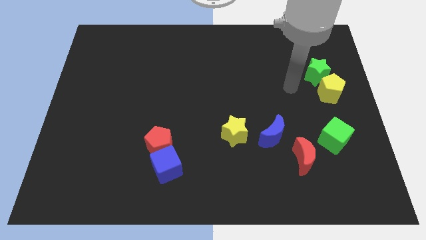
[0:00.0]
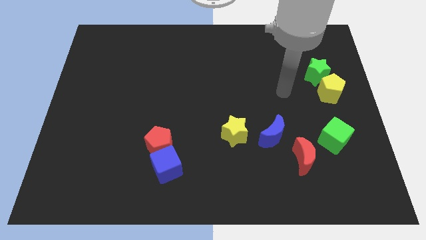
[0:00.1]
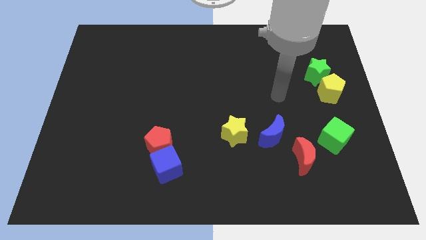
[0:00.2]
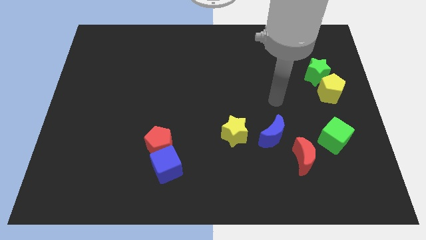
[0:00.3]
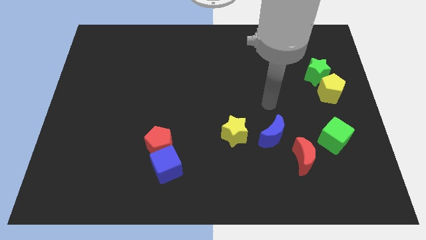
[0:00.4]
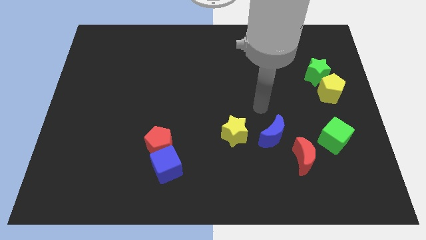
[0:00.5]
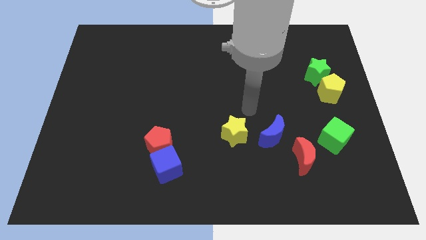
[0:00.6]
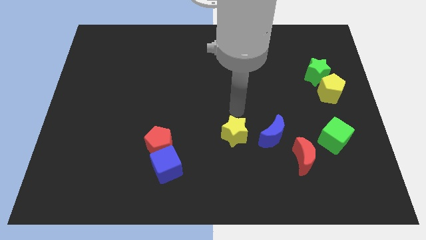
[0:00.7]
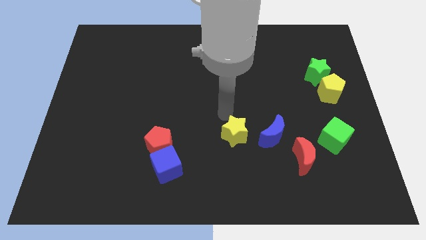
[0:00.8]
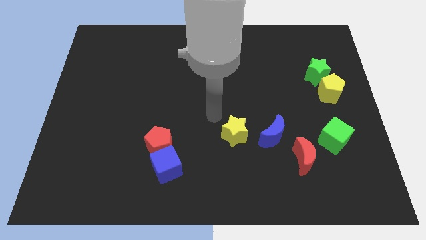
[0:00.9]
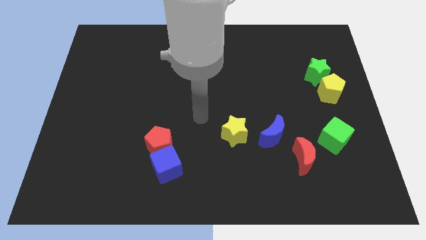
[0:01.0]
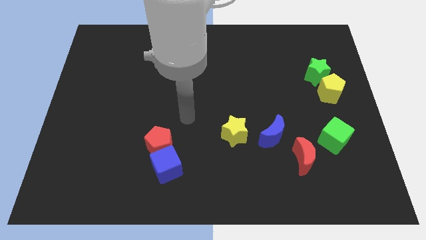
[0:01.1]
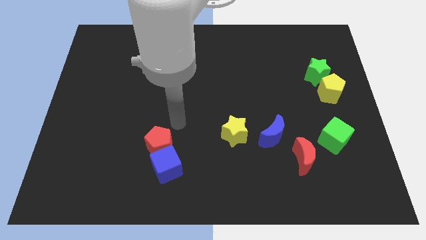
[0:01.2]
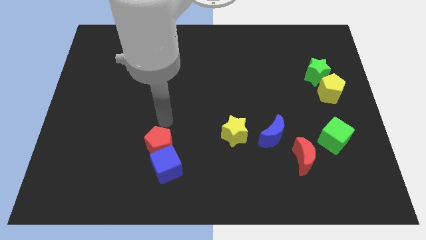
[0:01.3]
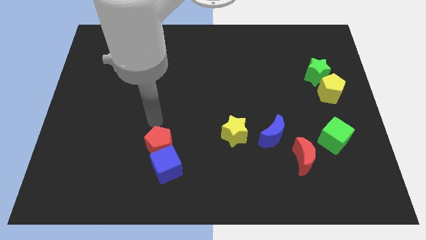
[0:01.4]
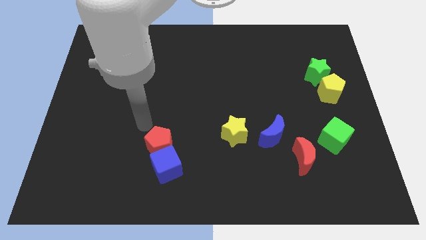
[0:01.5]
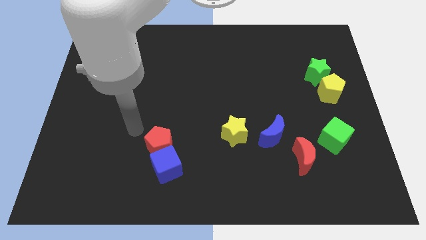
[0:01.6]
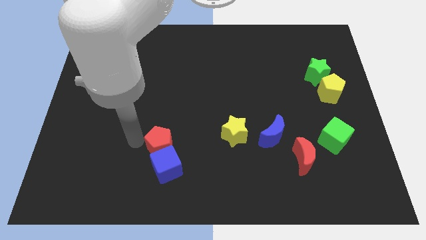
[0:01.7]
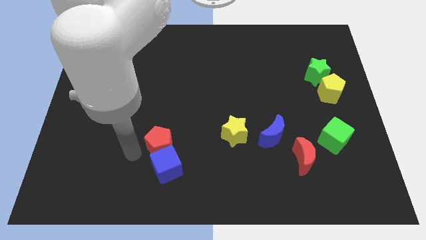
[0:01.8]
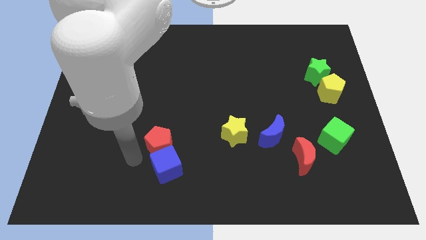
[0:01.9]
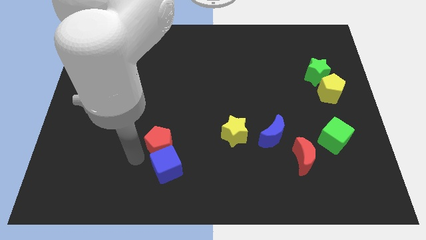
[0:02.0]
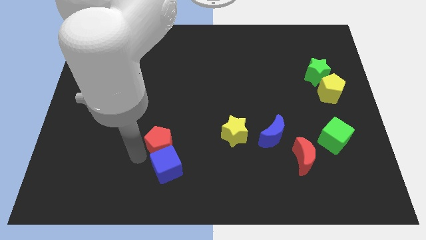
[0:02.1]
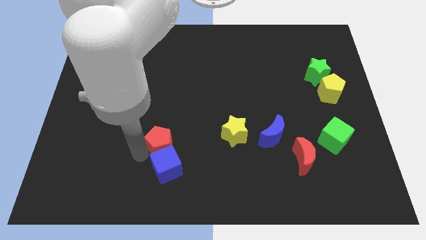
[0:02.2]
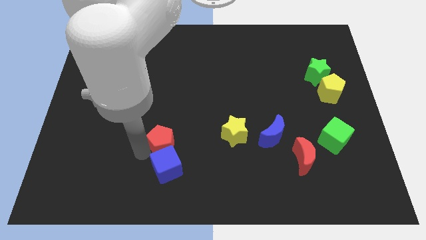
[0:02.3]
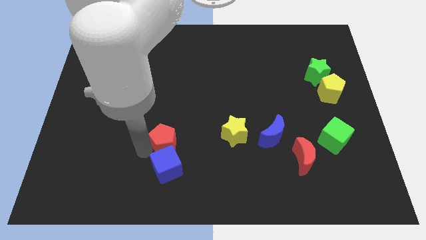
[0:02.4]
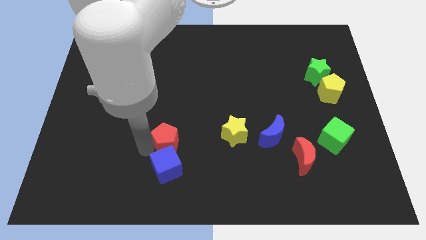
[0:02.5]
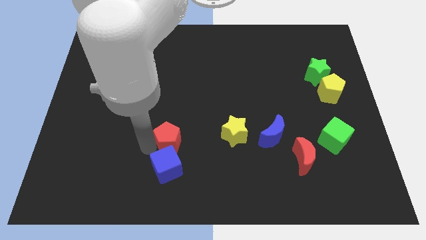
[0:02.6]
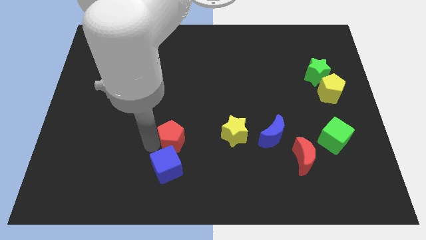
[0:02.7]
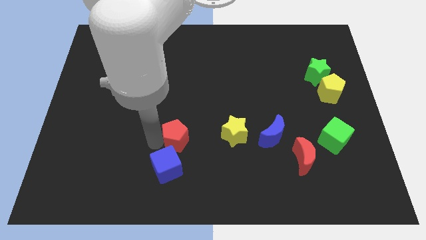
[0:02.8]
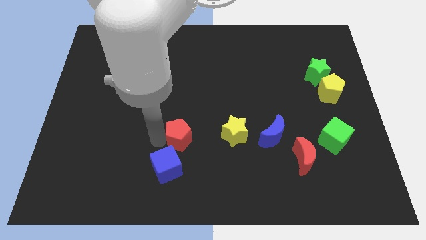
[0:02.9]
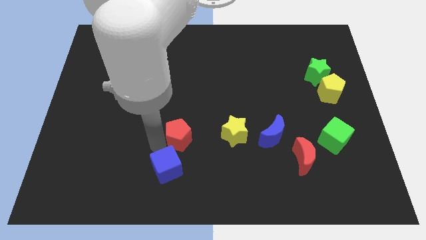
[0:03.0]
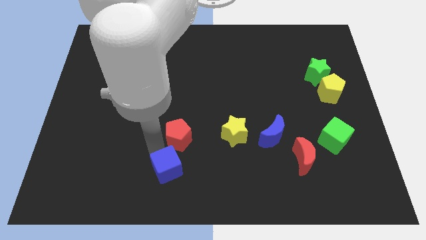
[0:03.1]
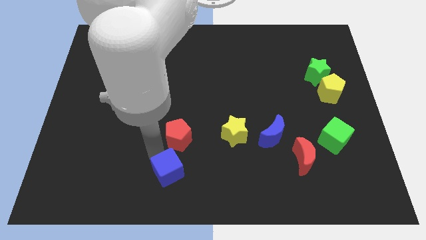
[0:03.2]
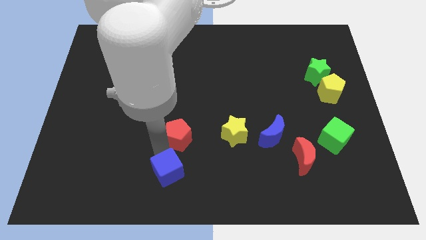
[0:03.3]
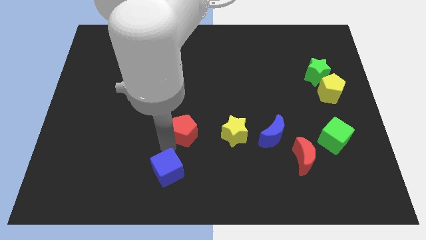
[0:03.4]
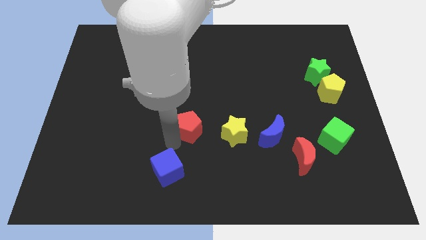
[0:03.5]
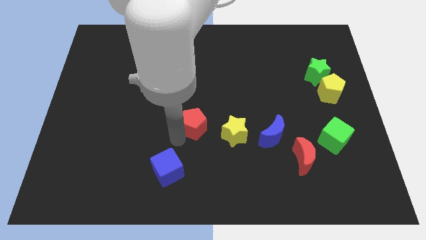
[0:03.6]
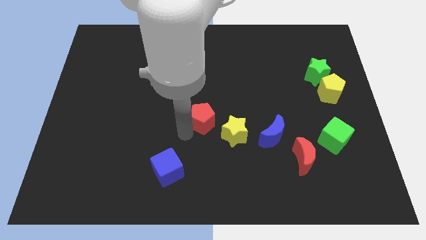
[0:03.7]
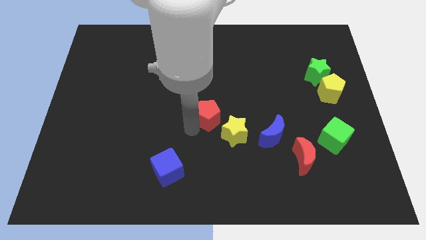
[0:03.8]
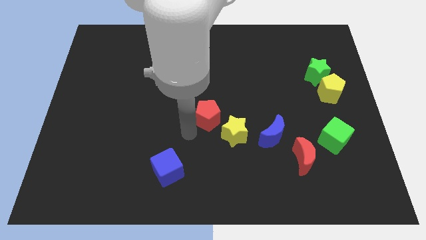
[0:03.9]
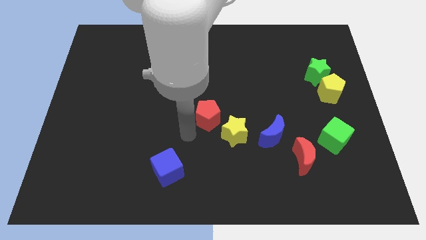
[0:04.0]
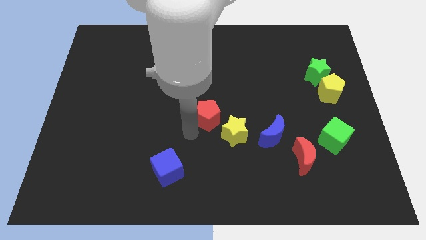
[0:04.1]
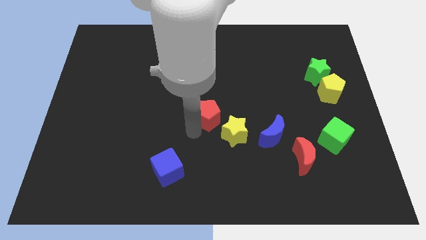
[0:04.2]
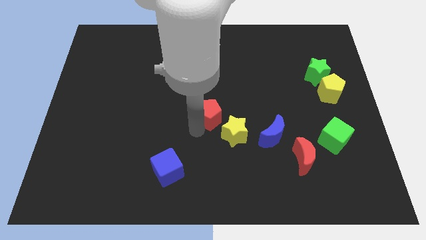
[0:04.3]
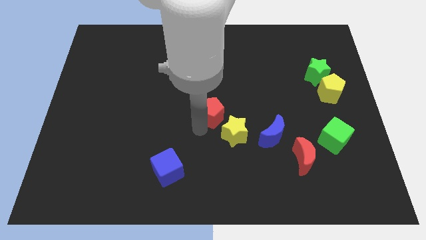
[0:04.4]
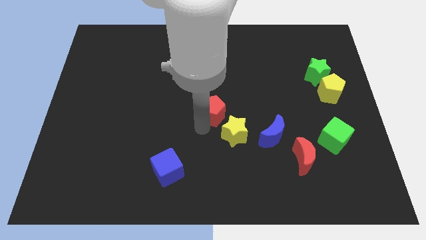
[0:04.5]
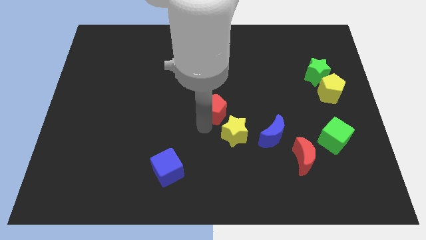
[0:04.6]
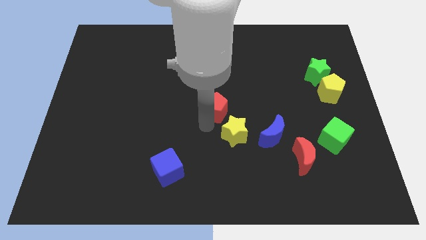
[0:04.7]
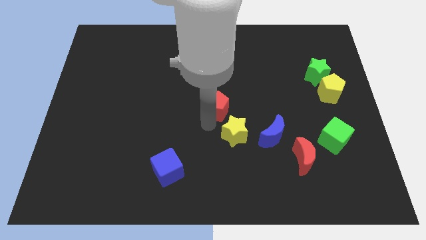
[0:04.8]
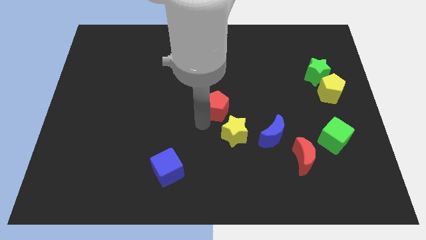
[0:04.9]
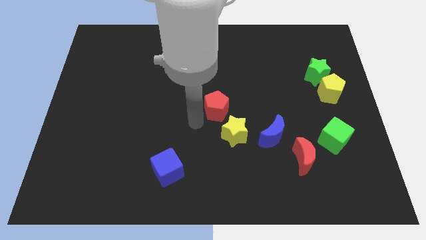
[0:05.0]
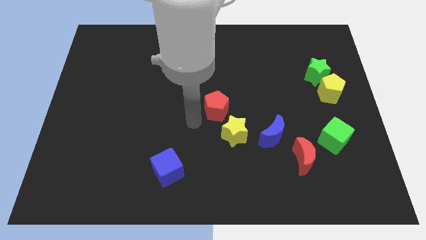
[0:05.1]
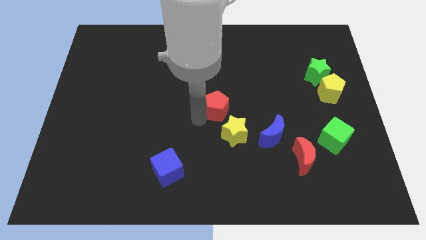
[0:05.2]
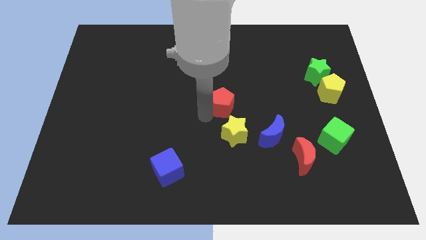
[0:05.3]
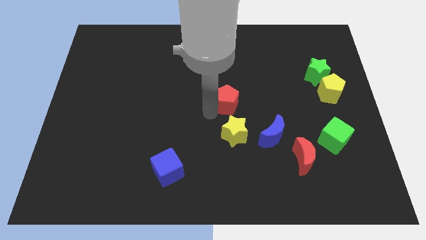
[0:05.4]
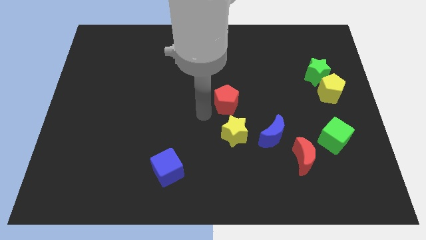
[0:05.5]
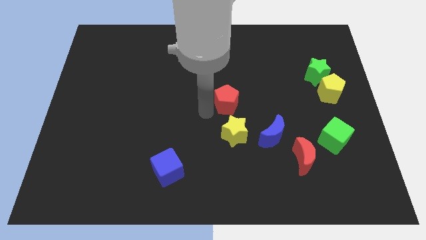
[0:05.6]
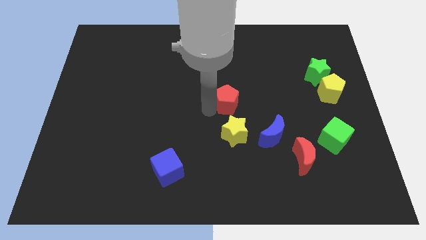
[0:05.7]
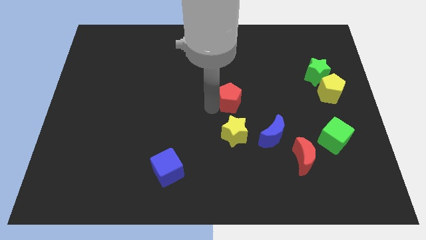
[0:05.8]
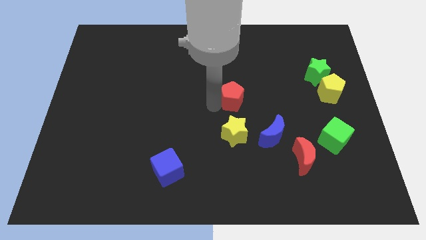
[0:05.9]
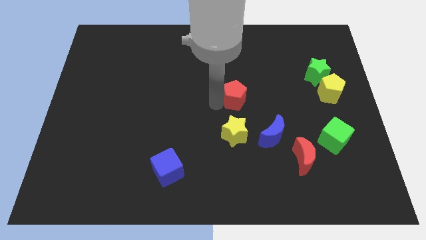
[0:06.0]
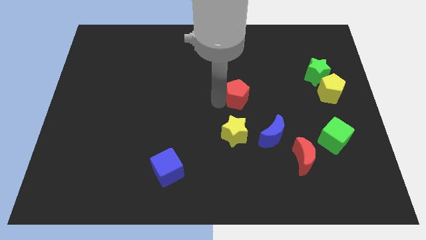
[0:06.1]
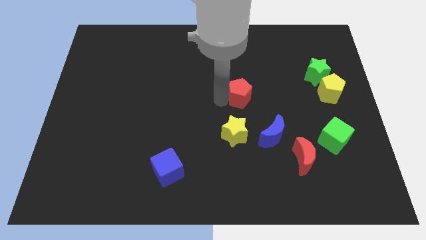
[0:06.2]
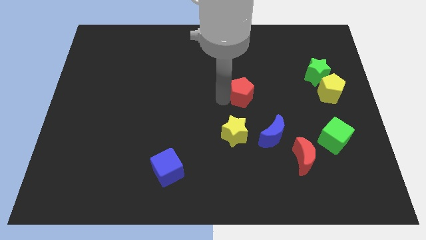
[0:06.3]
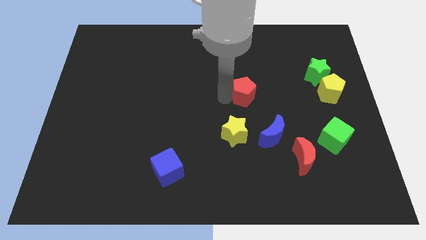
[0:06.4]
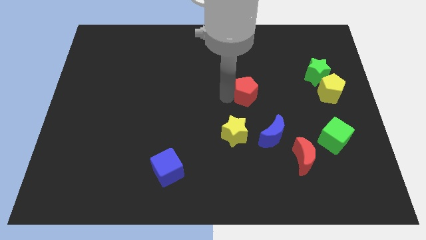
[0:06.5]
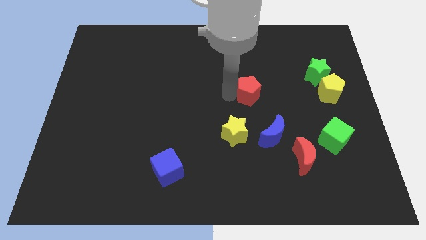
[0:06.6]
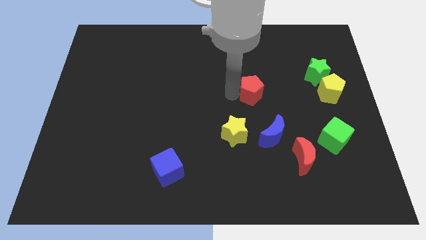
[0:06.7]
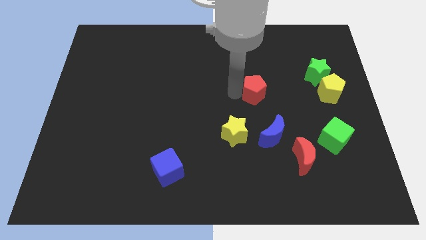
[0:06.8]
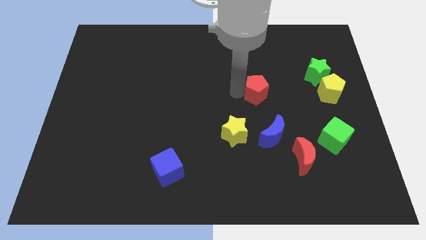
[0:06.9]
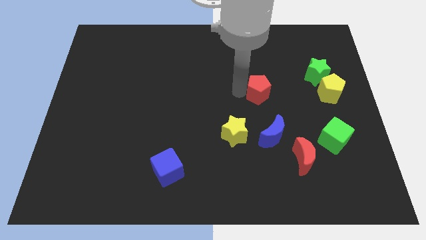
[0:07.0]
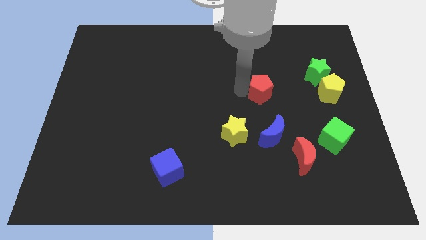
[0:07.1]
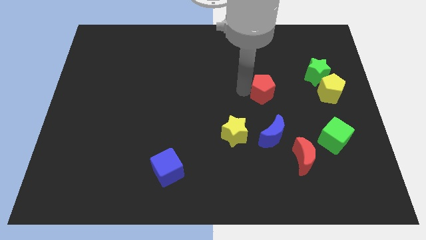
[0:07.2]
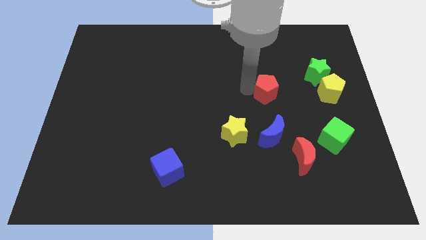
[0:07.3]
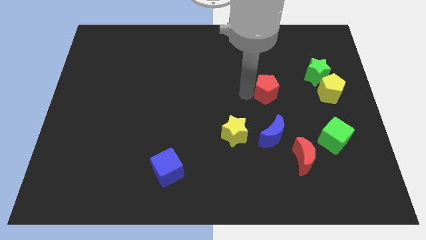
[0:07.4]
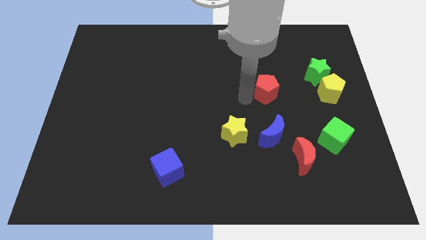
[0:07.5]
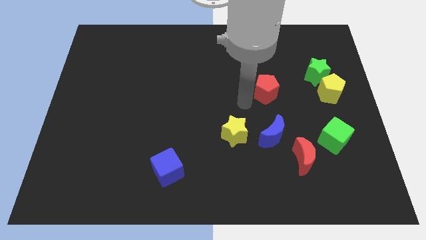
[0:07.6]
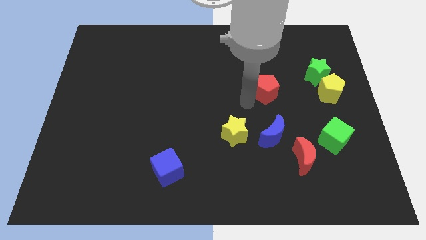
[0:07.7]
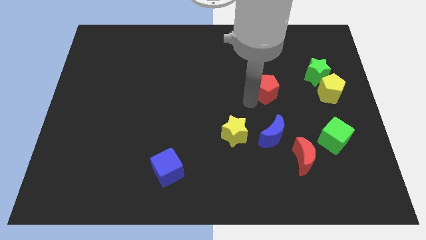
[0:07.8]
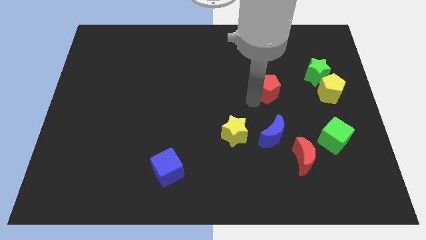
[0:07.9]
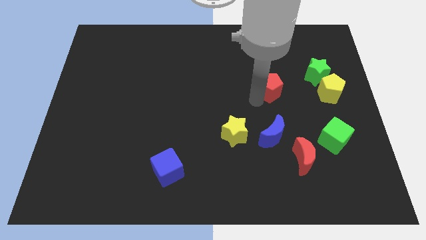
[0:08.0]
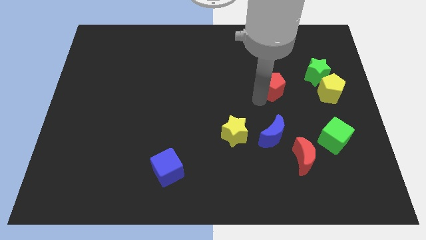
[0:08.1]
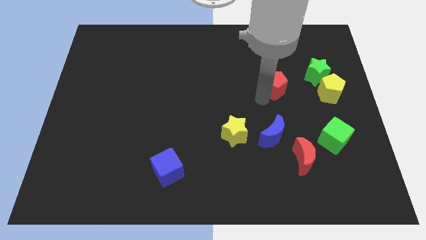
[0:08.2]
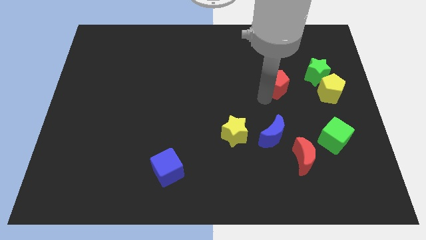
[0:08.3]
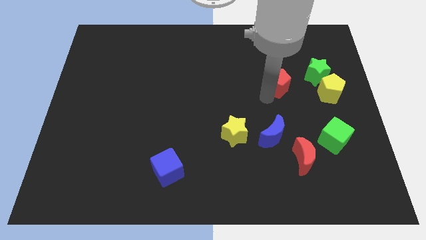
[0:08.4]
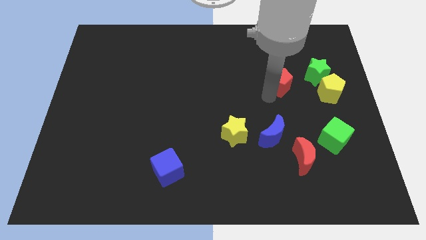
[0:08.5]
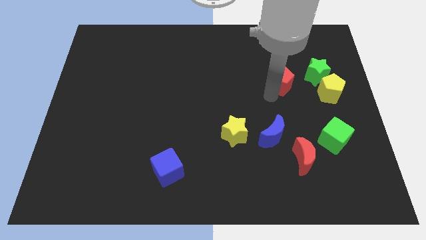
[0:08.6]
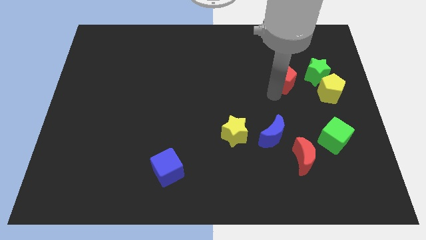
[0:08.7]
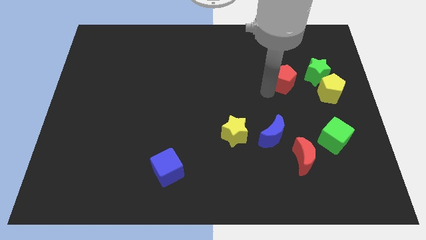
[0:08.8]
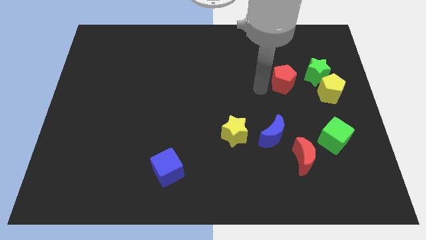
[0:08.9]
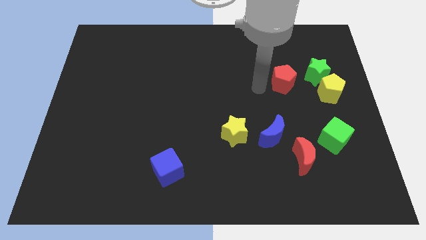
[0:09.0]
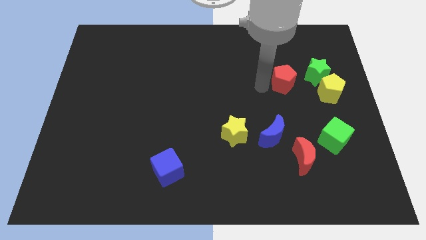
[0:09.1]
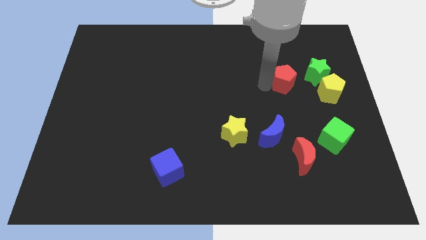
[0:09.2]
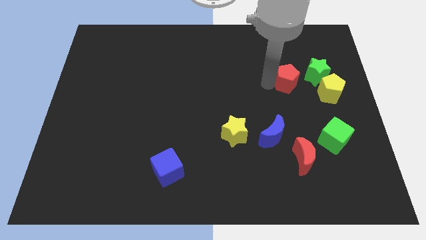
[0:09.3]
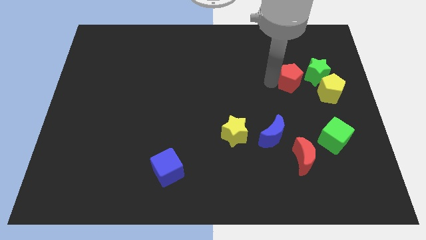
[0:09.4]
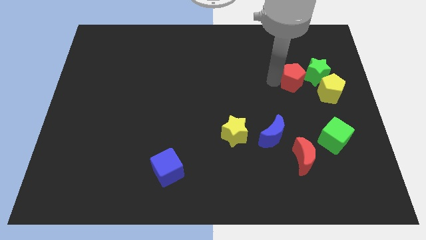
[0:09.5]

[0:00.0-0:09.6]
put the red pentagon next to the green star
